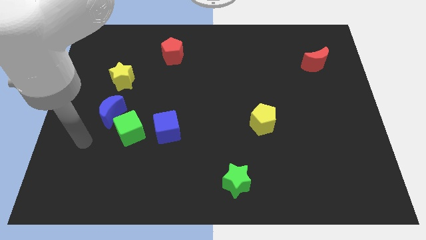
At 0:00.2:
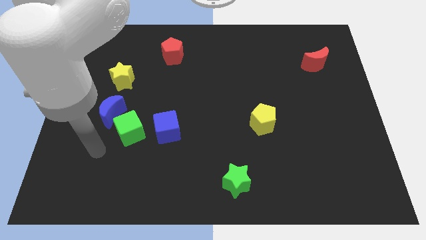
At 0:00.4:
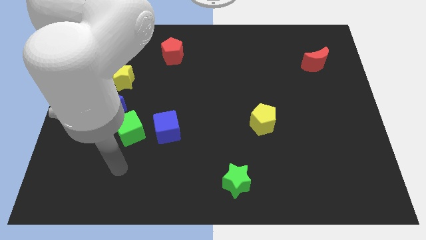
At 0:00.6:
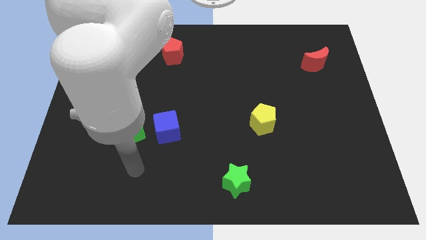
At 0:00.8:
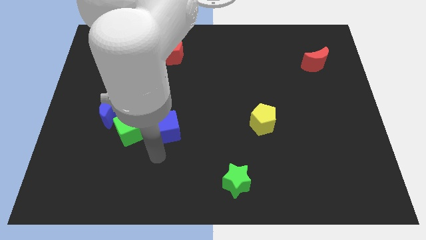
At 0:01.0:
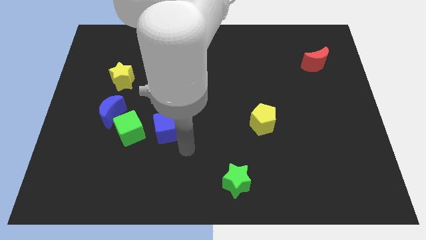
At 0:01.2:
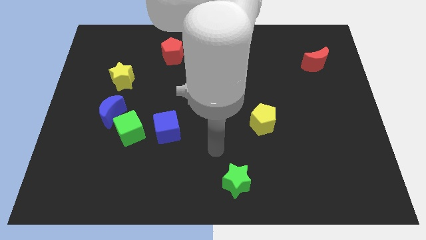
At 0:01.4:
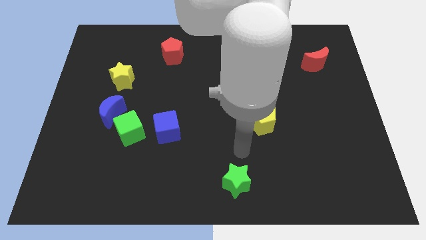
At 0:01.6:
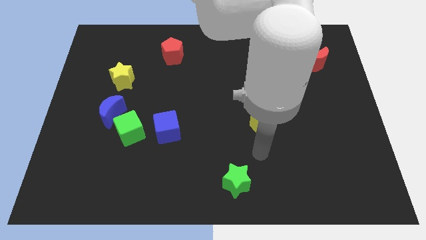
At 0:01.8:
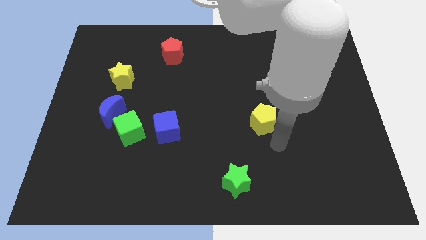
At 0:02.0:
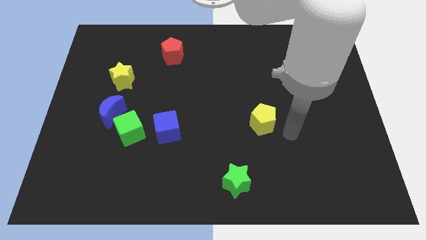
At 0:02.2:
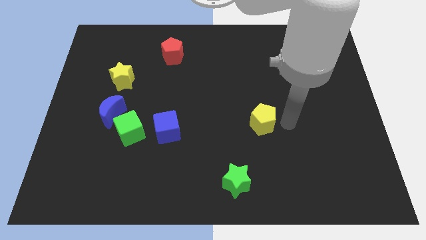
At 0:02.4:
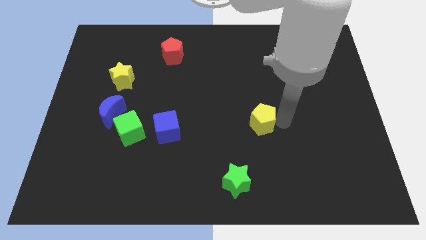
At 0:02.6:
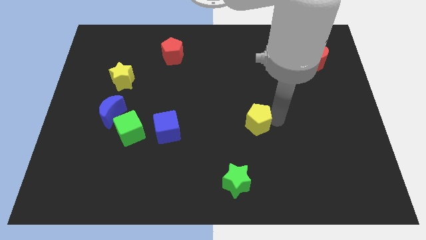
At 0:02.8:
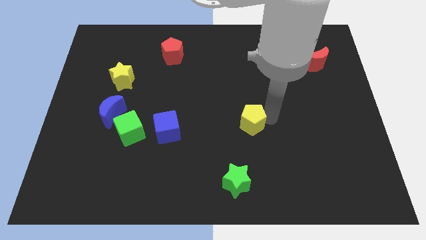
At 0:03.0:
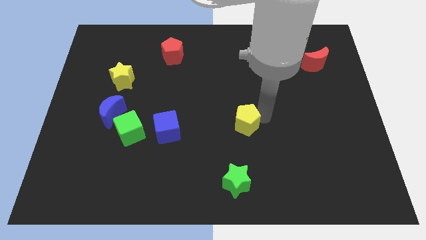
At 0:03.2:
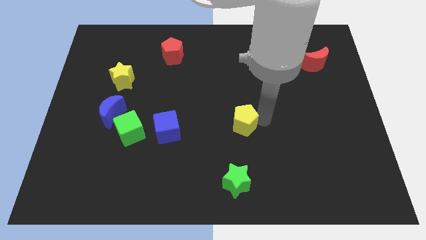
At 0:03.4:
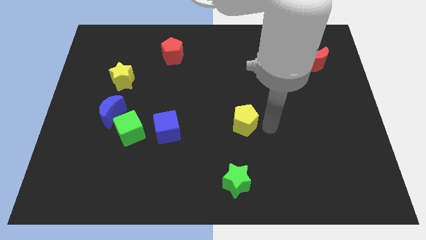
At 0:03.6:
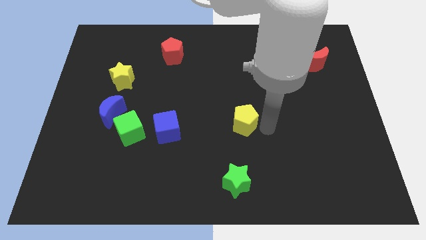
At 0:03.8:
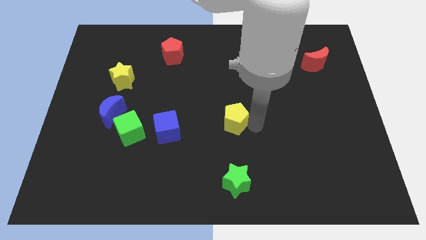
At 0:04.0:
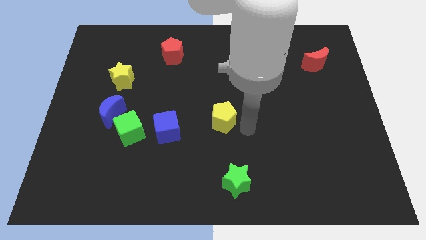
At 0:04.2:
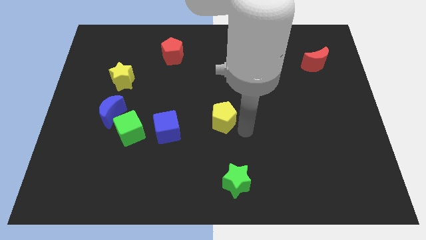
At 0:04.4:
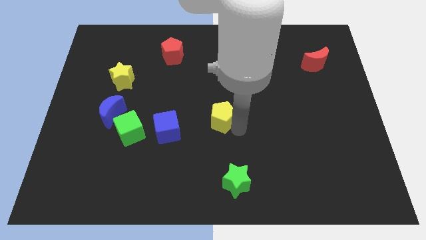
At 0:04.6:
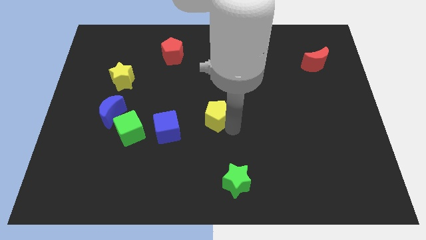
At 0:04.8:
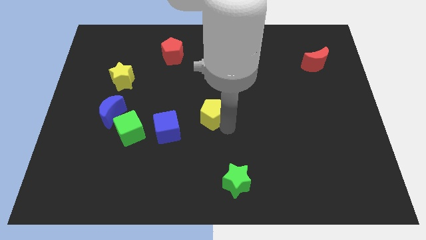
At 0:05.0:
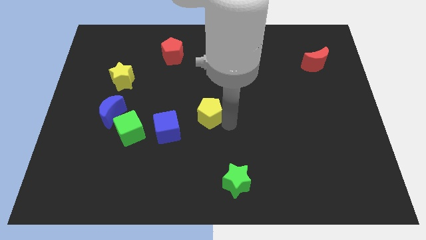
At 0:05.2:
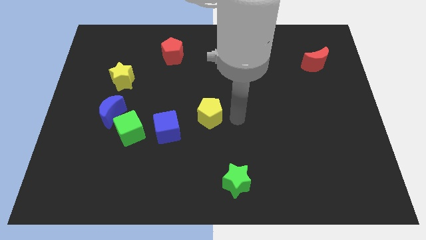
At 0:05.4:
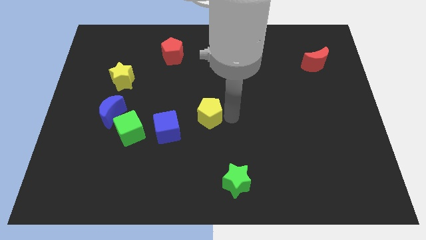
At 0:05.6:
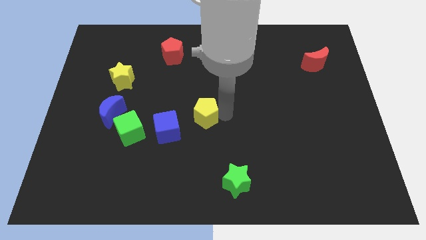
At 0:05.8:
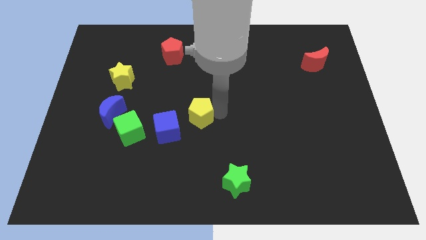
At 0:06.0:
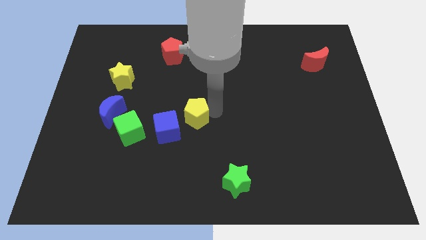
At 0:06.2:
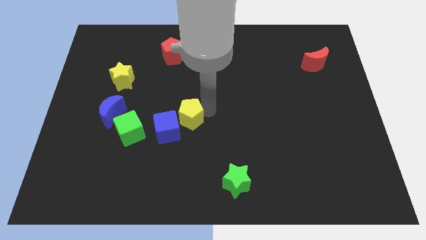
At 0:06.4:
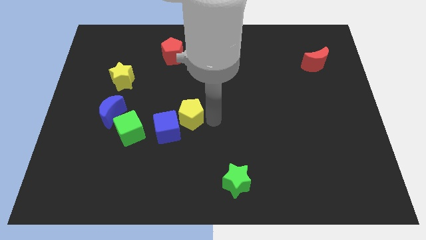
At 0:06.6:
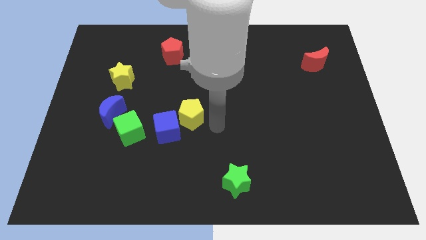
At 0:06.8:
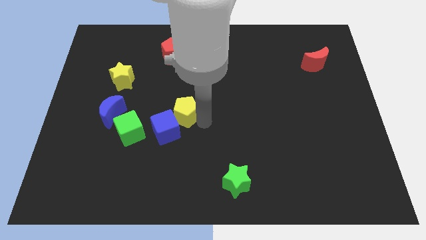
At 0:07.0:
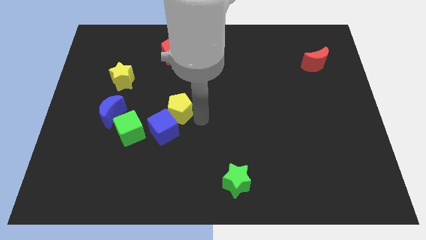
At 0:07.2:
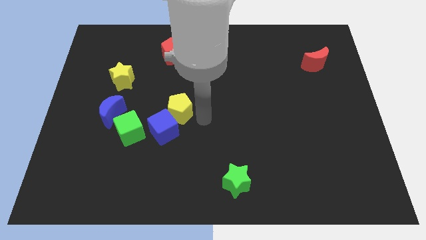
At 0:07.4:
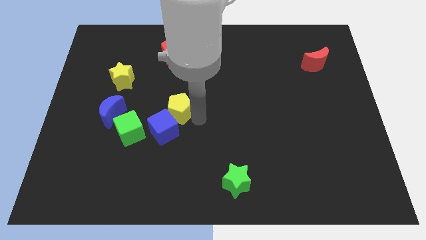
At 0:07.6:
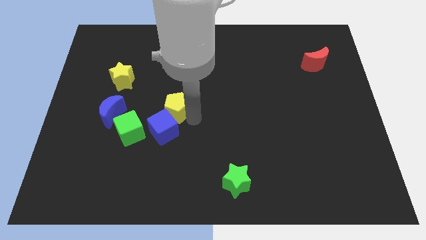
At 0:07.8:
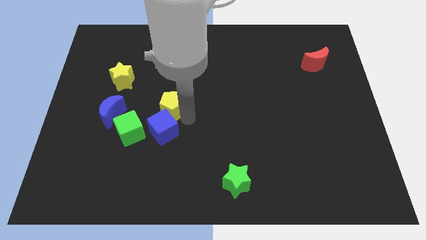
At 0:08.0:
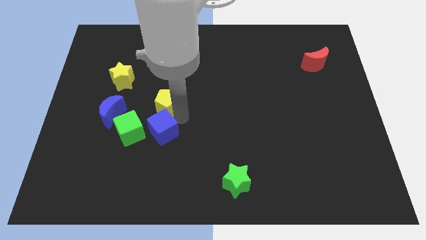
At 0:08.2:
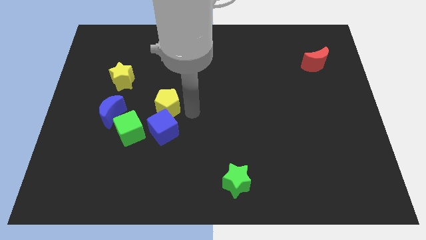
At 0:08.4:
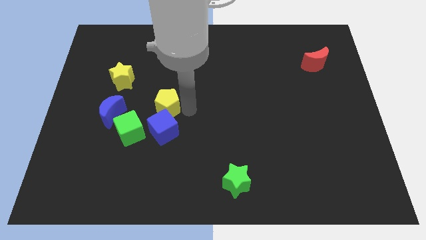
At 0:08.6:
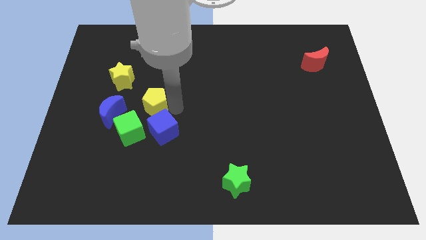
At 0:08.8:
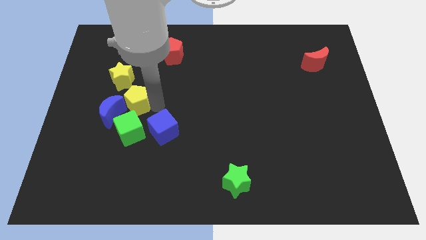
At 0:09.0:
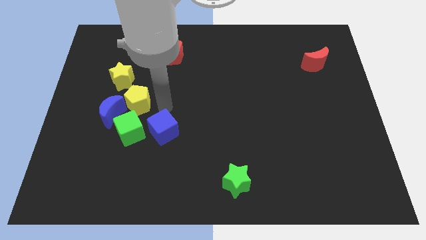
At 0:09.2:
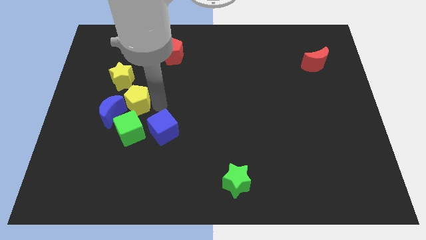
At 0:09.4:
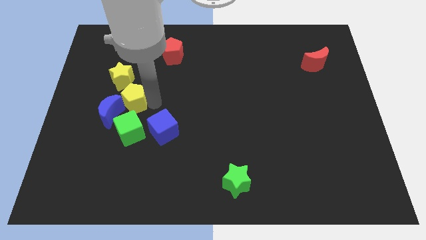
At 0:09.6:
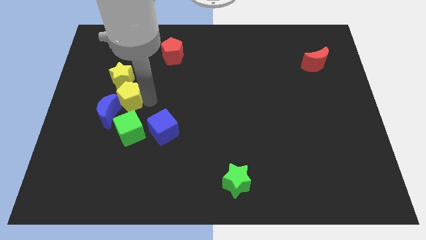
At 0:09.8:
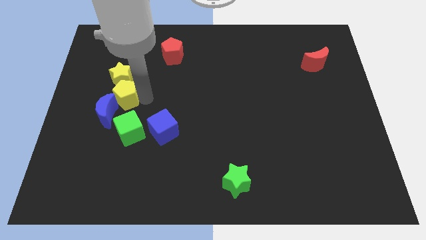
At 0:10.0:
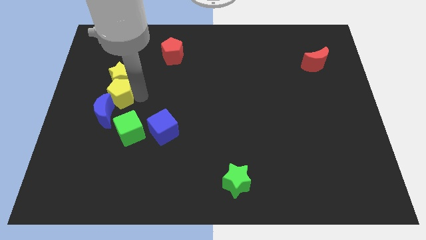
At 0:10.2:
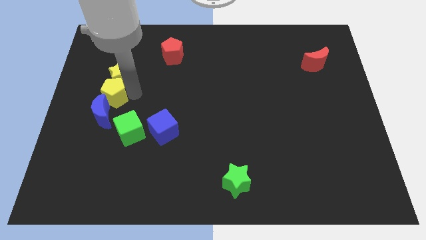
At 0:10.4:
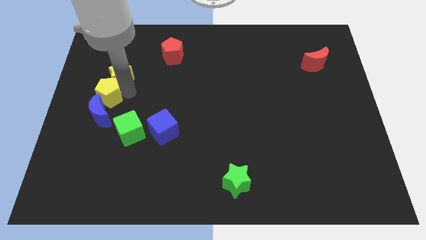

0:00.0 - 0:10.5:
move the yellow pentagon to the top left side of the blue moon

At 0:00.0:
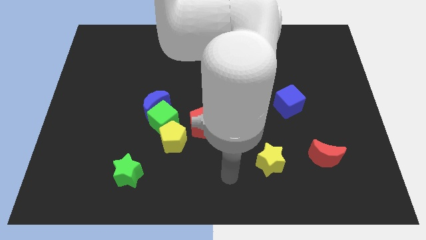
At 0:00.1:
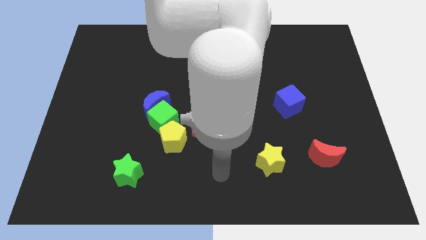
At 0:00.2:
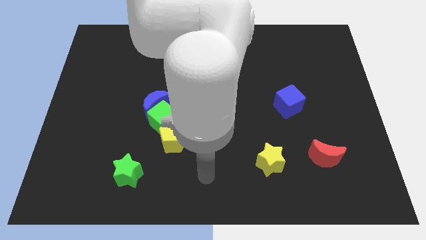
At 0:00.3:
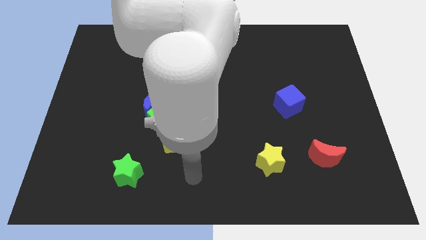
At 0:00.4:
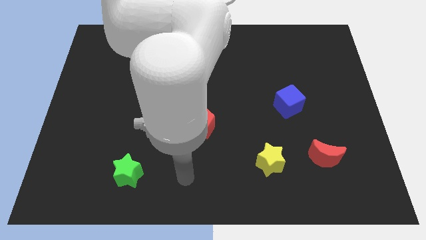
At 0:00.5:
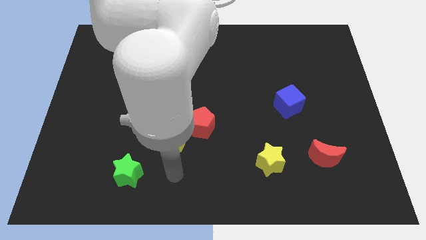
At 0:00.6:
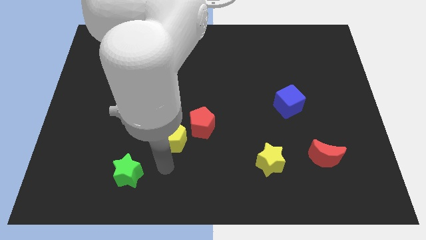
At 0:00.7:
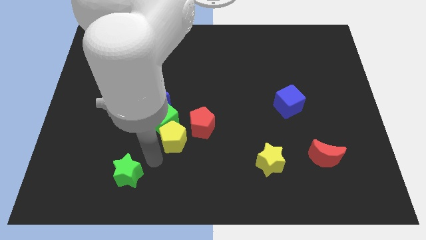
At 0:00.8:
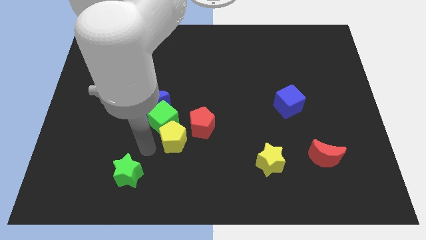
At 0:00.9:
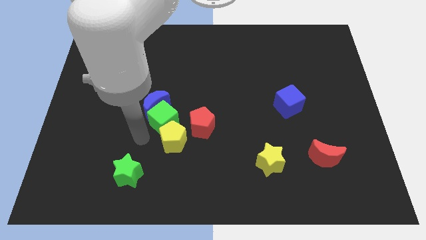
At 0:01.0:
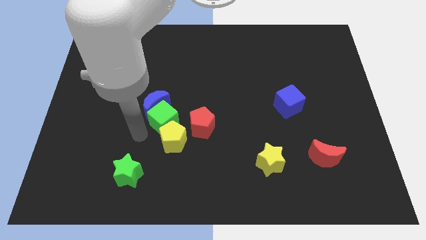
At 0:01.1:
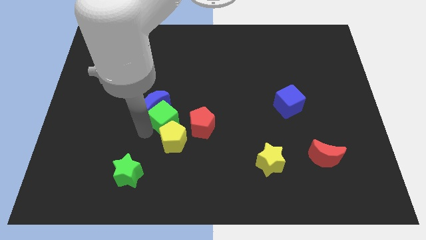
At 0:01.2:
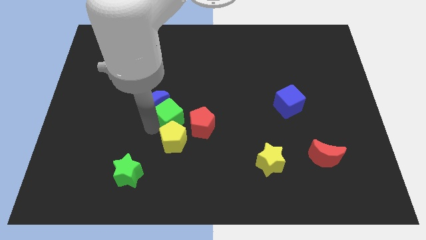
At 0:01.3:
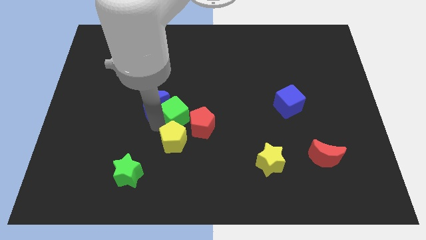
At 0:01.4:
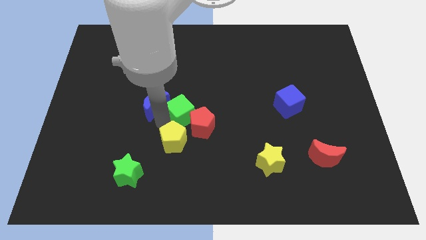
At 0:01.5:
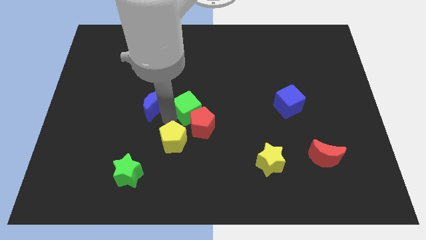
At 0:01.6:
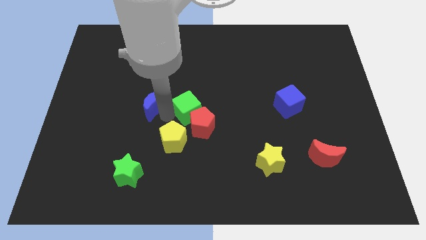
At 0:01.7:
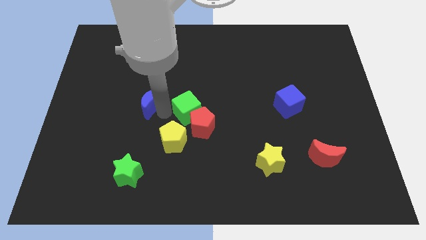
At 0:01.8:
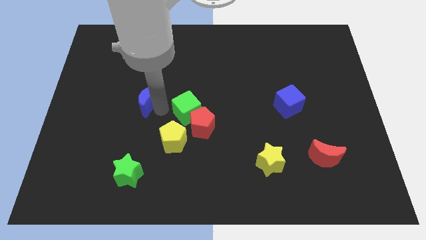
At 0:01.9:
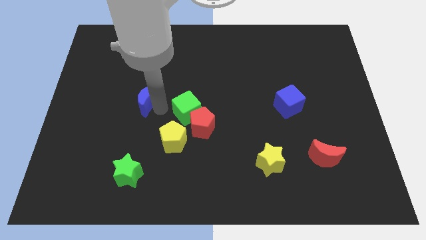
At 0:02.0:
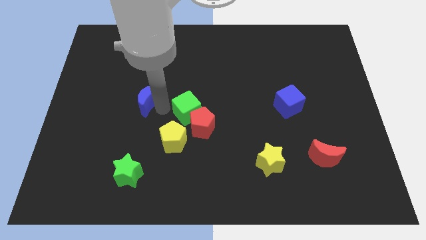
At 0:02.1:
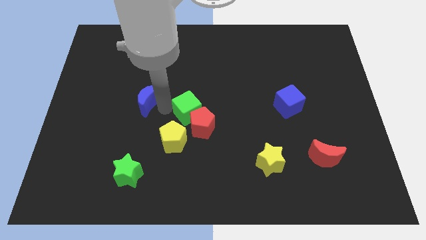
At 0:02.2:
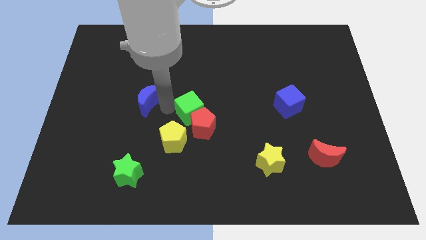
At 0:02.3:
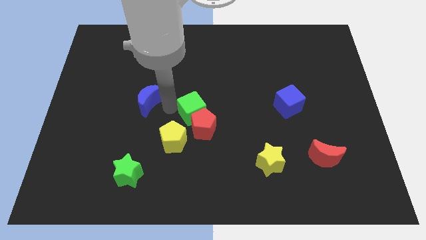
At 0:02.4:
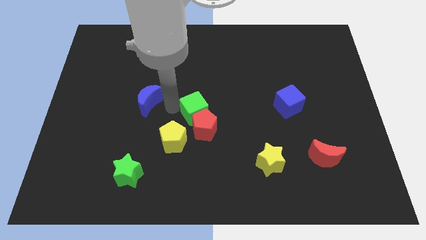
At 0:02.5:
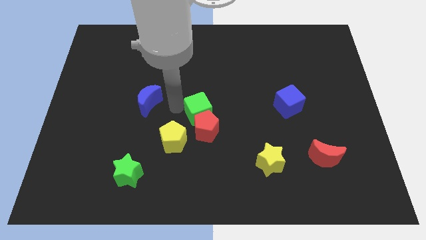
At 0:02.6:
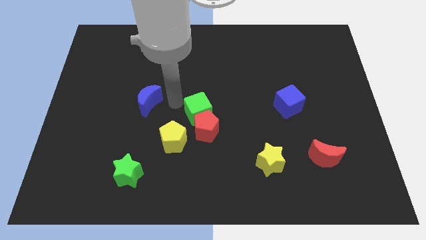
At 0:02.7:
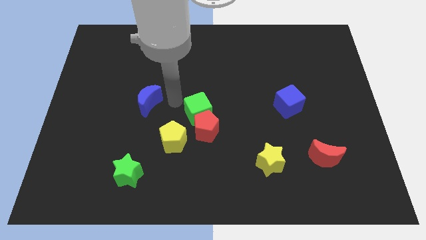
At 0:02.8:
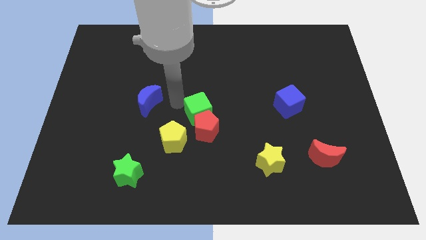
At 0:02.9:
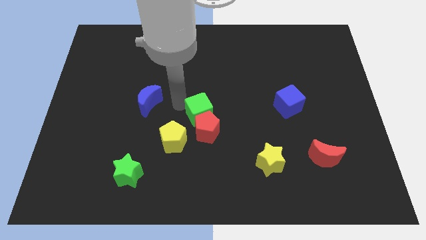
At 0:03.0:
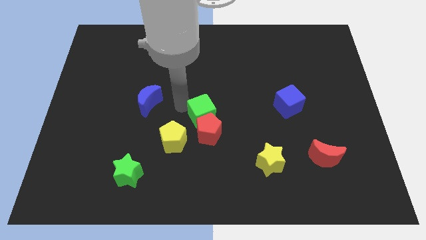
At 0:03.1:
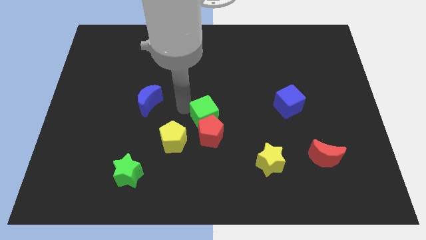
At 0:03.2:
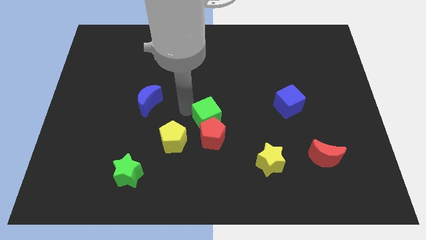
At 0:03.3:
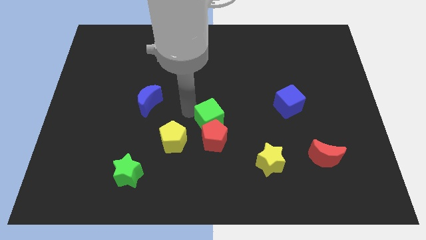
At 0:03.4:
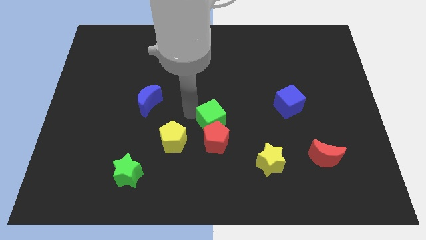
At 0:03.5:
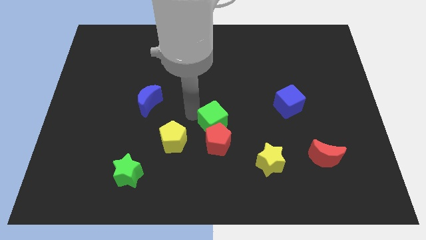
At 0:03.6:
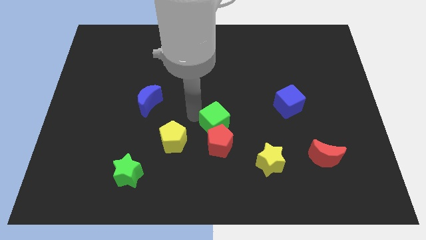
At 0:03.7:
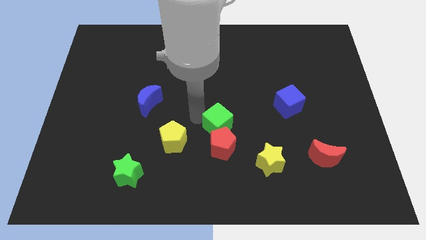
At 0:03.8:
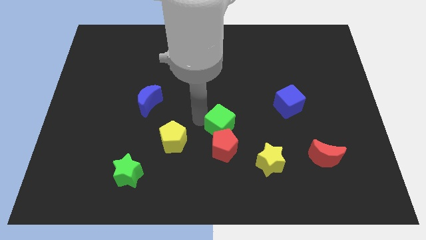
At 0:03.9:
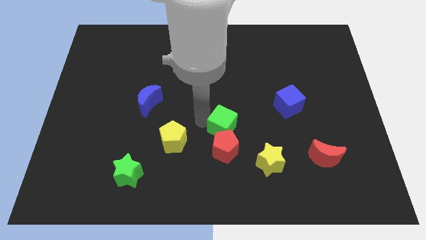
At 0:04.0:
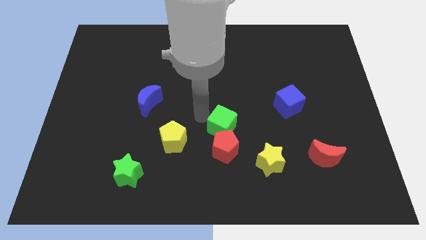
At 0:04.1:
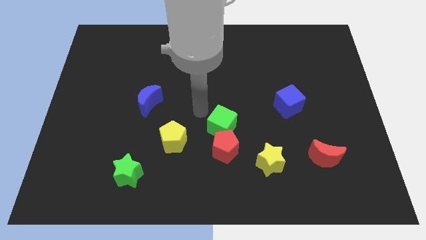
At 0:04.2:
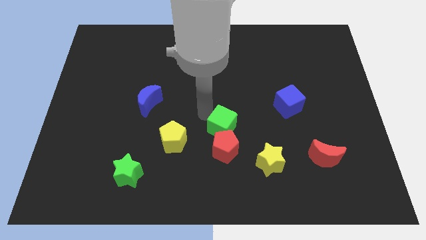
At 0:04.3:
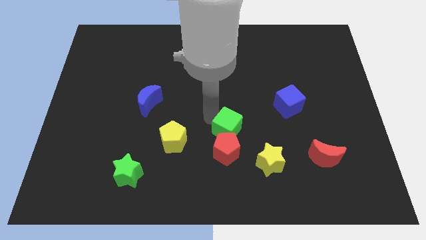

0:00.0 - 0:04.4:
push the green cube to the top left side of the yellow star
